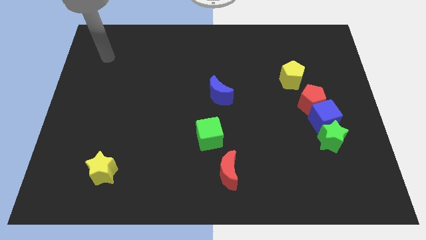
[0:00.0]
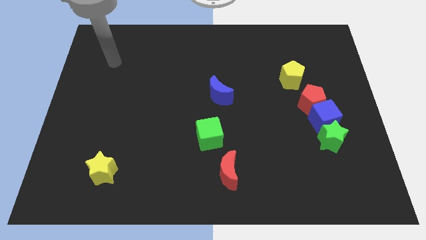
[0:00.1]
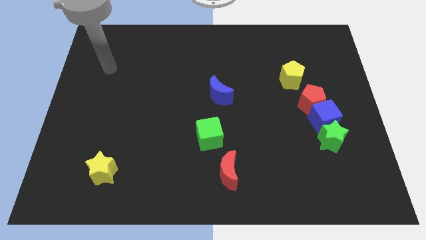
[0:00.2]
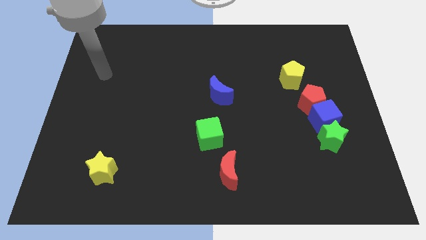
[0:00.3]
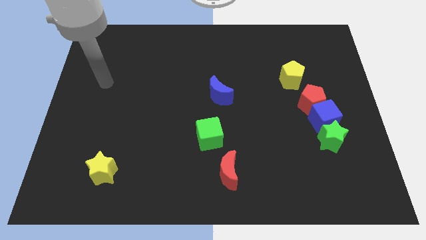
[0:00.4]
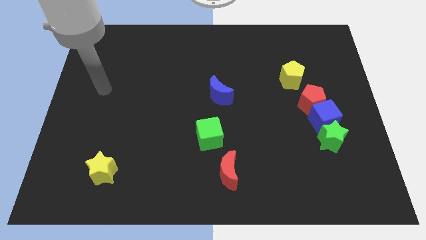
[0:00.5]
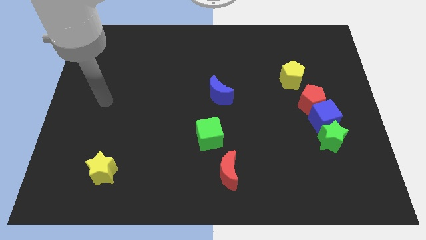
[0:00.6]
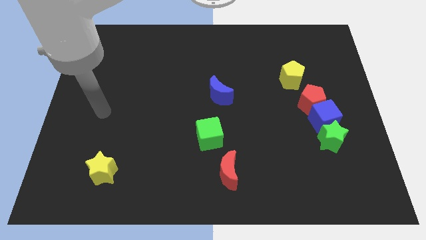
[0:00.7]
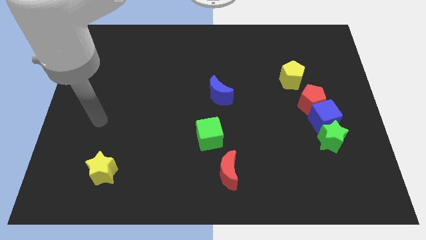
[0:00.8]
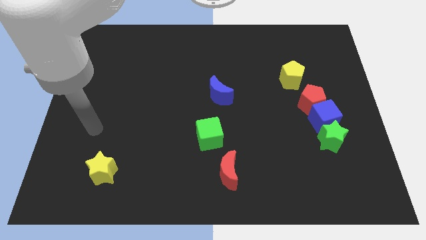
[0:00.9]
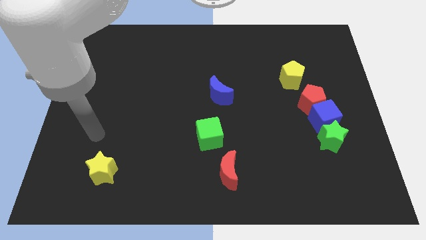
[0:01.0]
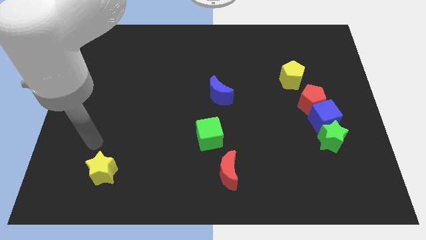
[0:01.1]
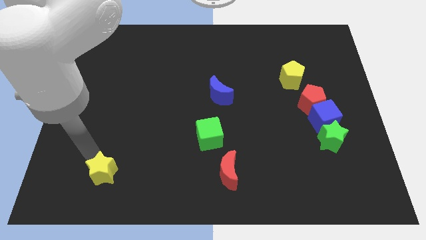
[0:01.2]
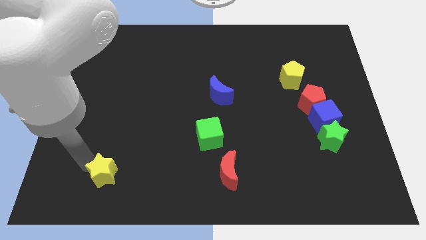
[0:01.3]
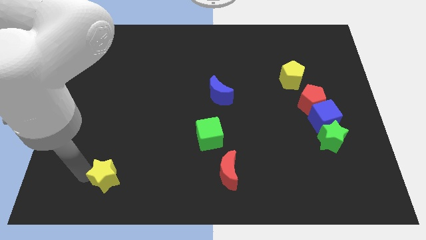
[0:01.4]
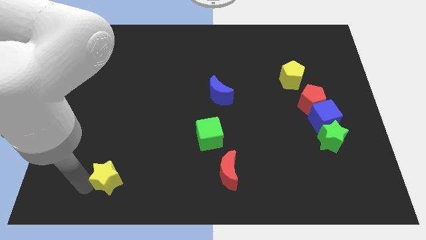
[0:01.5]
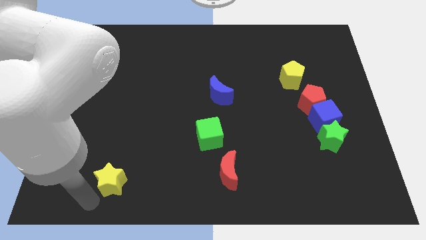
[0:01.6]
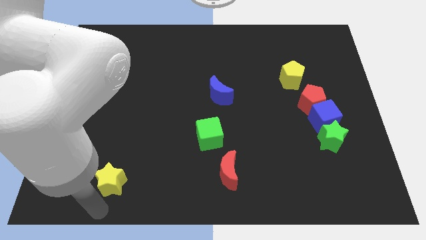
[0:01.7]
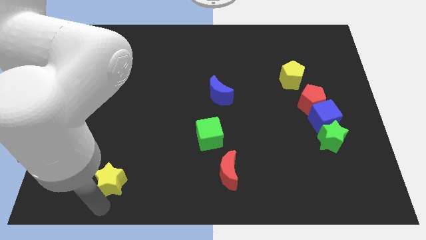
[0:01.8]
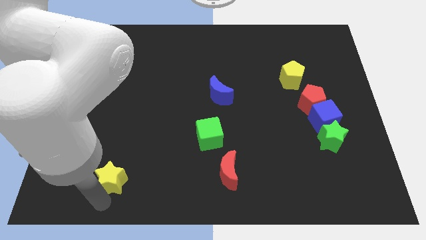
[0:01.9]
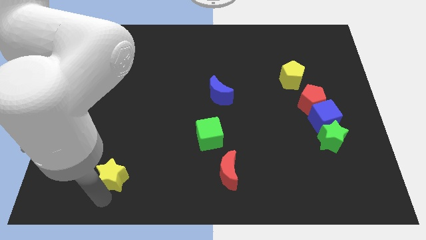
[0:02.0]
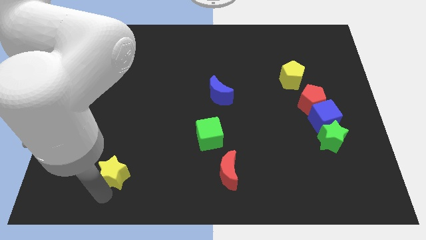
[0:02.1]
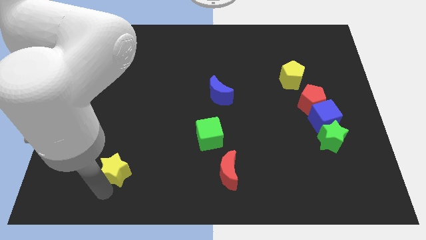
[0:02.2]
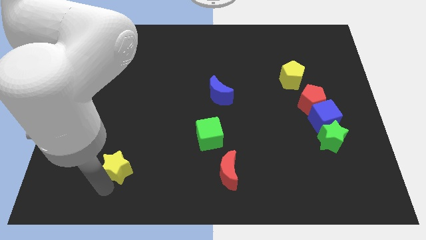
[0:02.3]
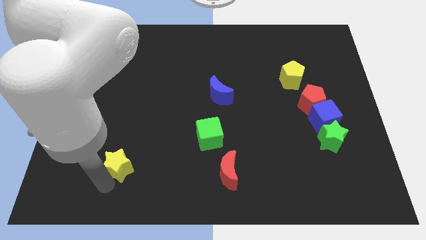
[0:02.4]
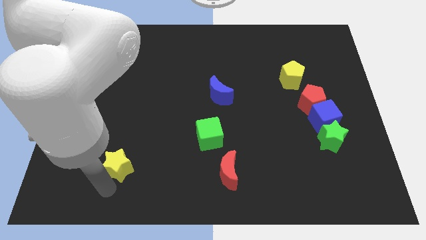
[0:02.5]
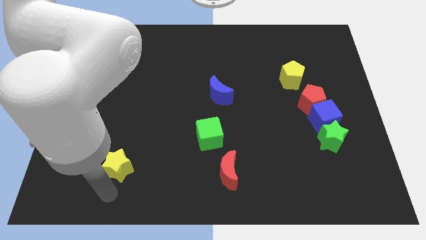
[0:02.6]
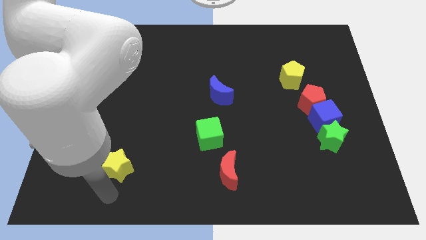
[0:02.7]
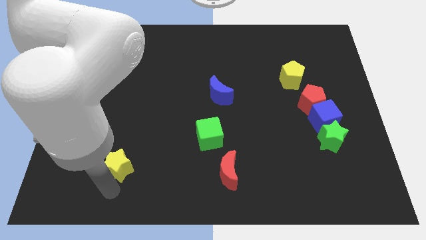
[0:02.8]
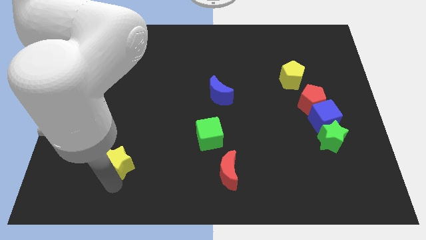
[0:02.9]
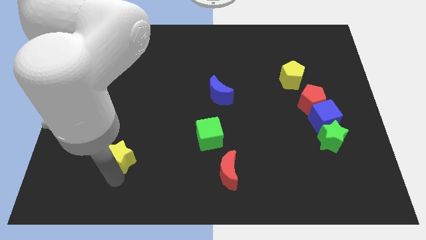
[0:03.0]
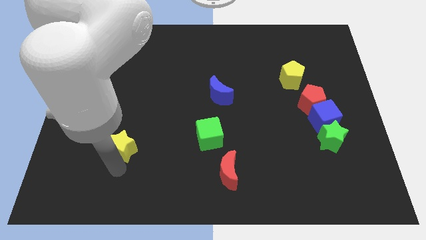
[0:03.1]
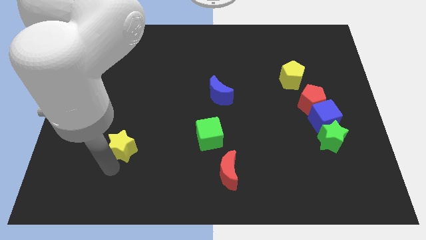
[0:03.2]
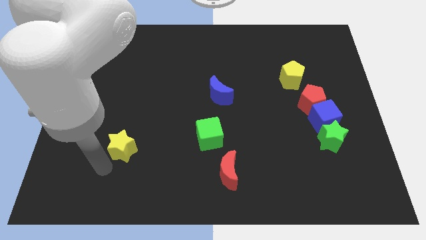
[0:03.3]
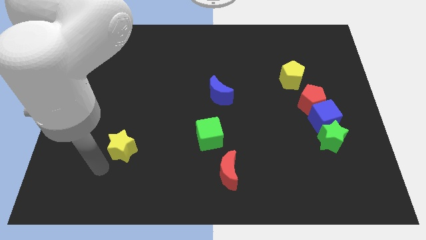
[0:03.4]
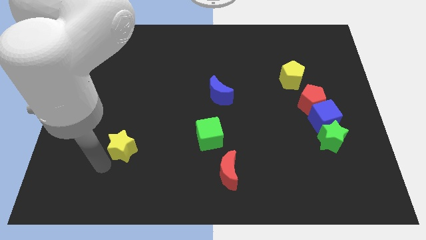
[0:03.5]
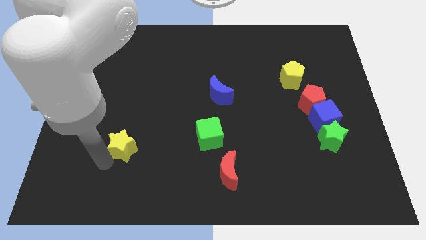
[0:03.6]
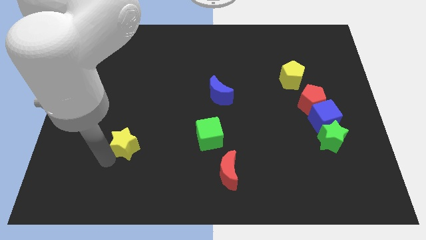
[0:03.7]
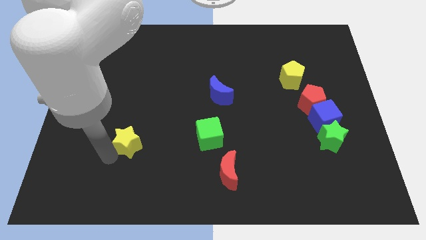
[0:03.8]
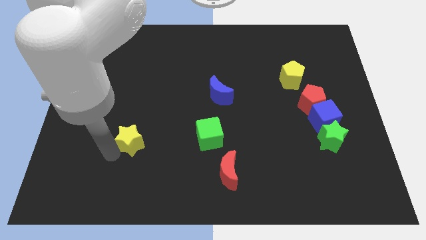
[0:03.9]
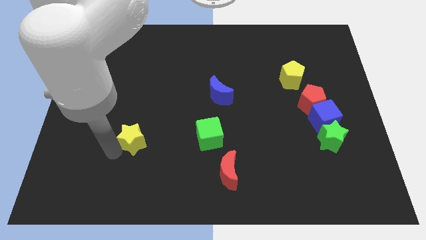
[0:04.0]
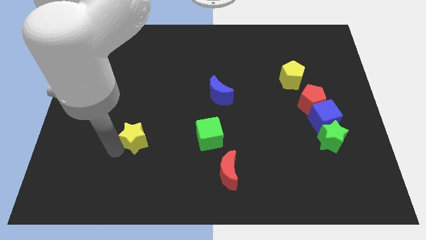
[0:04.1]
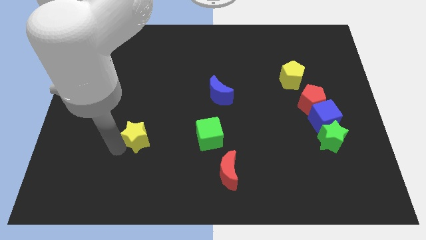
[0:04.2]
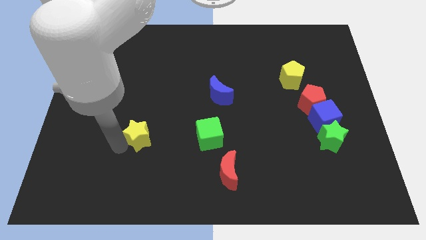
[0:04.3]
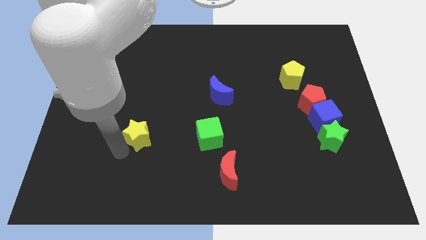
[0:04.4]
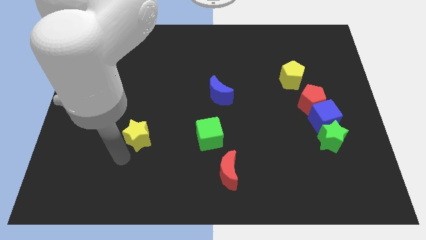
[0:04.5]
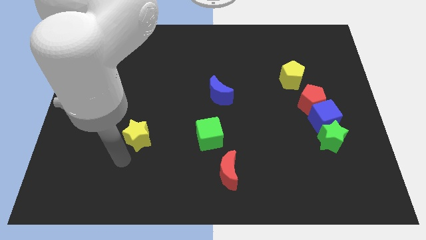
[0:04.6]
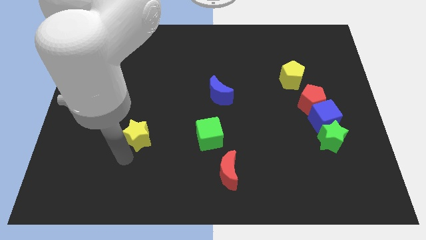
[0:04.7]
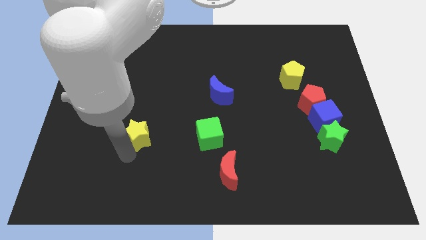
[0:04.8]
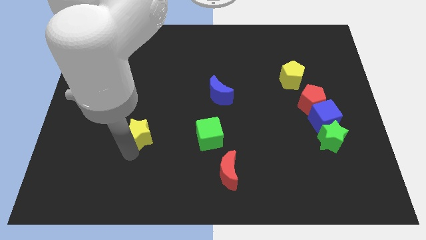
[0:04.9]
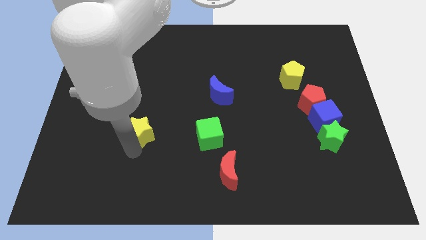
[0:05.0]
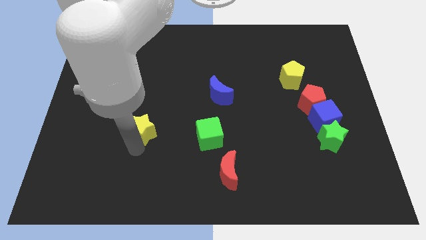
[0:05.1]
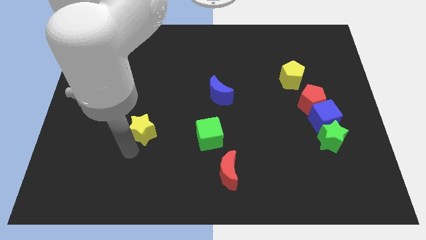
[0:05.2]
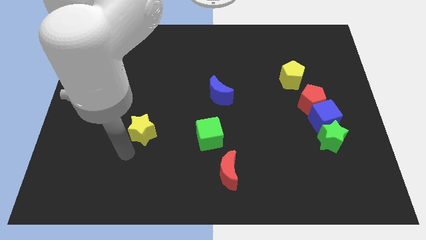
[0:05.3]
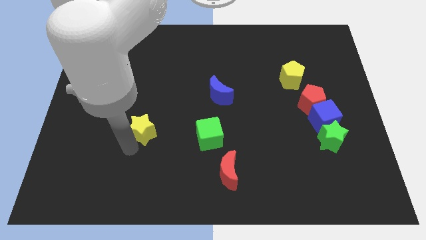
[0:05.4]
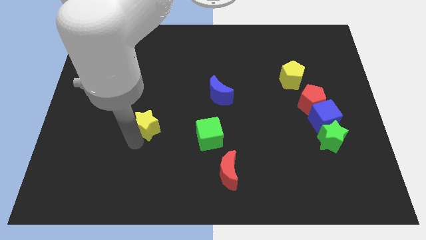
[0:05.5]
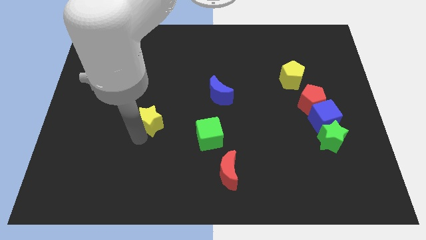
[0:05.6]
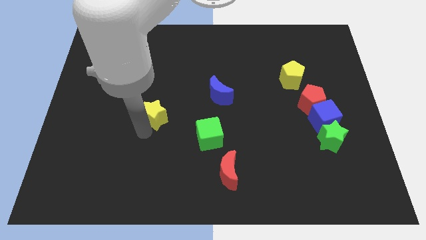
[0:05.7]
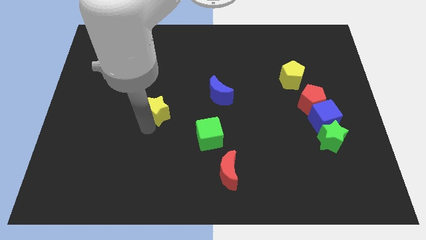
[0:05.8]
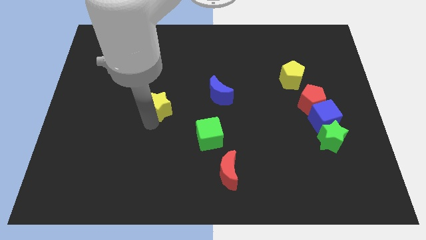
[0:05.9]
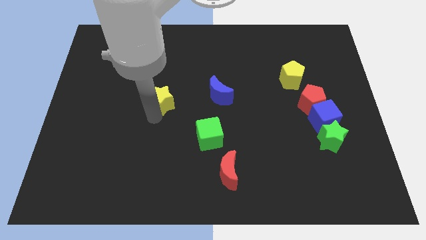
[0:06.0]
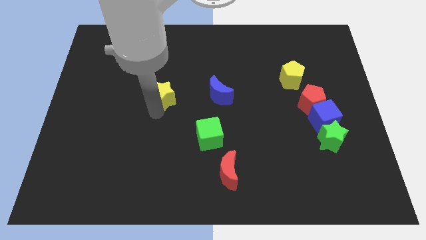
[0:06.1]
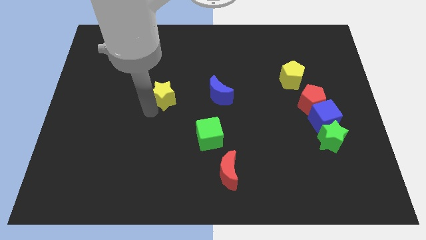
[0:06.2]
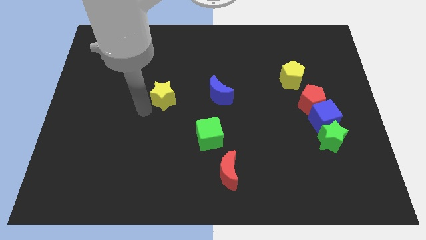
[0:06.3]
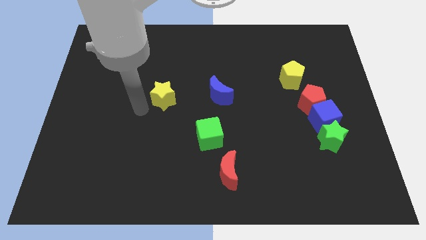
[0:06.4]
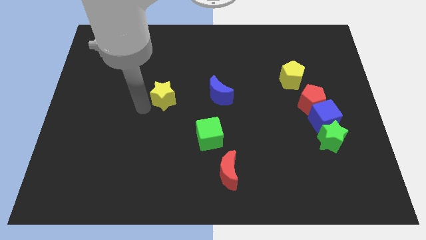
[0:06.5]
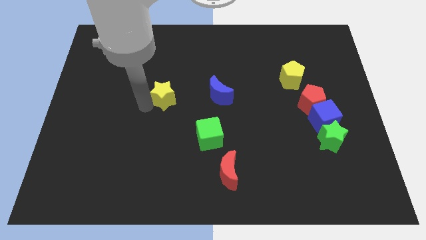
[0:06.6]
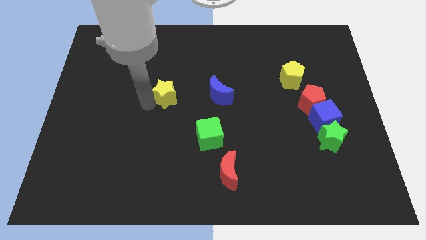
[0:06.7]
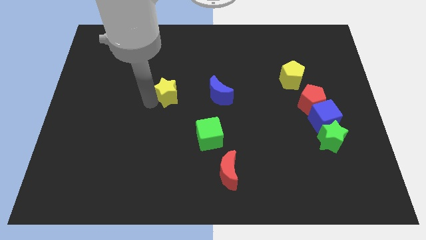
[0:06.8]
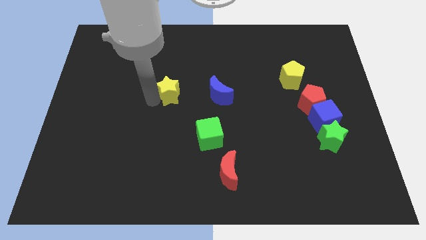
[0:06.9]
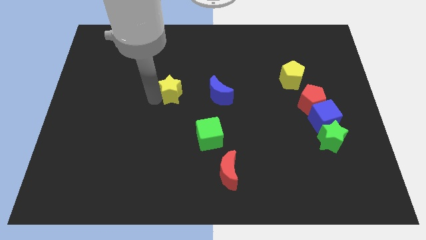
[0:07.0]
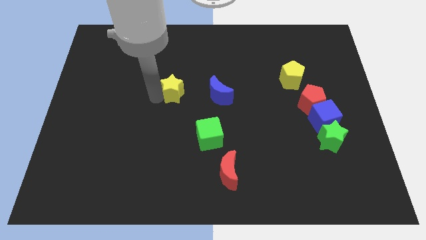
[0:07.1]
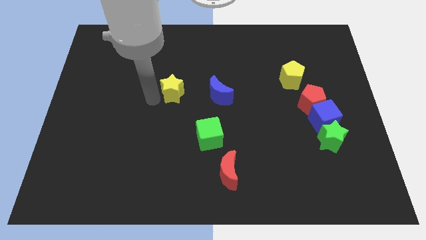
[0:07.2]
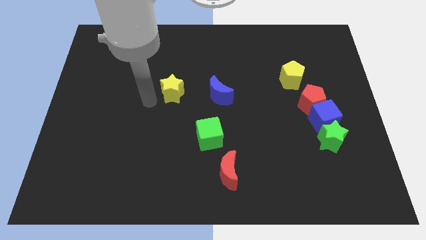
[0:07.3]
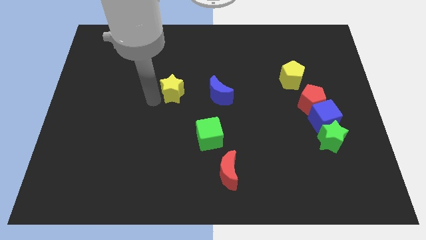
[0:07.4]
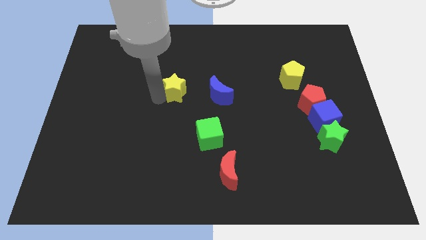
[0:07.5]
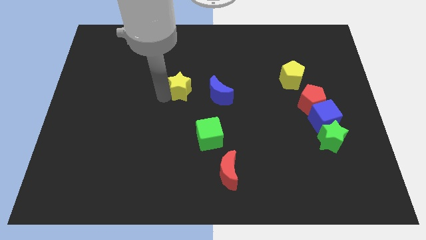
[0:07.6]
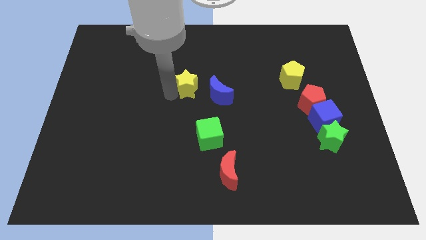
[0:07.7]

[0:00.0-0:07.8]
slide the yellow star to the top left side of the blue moon
